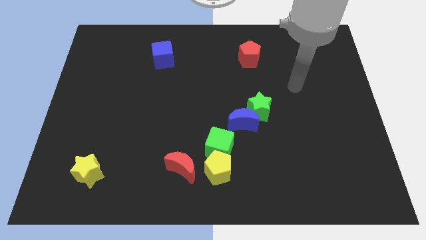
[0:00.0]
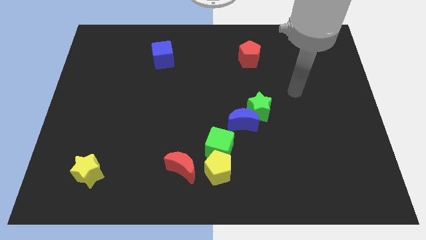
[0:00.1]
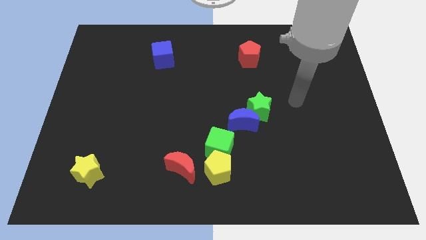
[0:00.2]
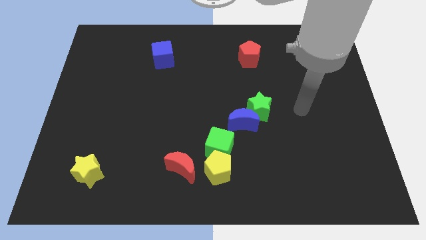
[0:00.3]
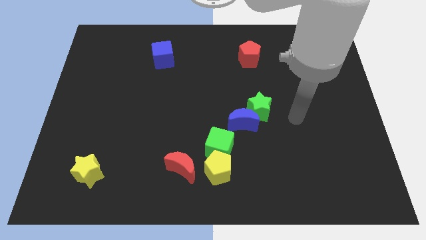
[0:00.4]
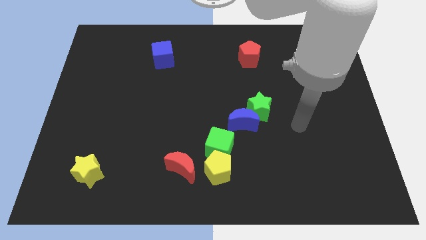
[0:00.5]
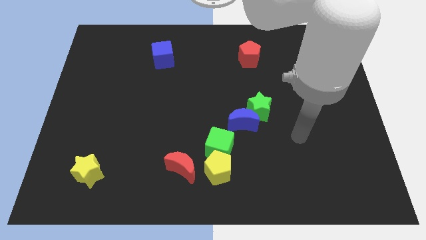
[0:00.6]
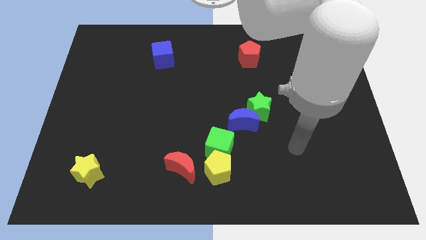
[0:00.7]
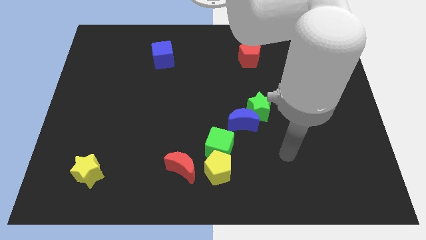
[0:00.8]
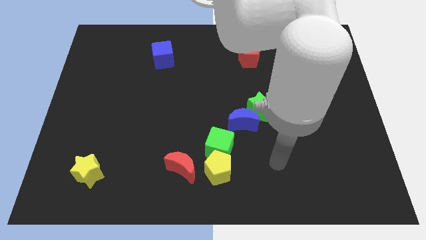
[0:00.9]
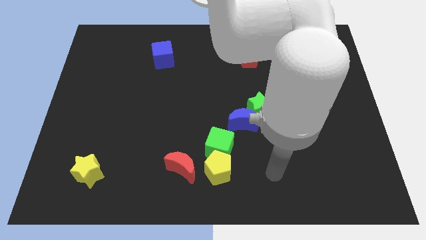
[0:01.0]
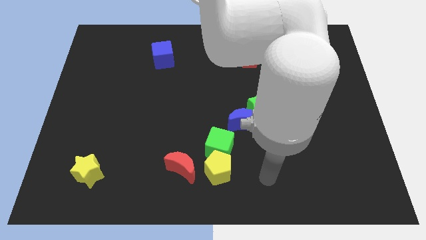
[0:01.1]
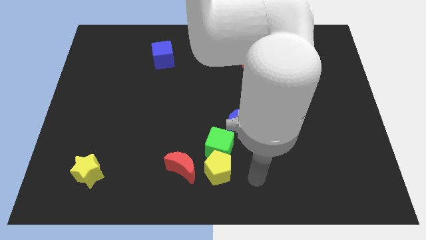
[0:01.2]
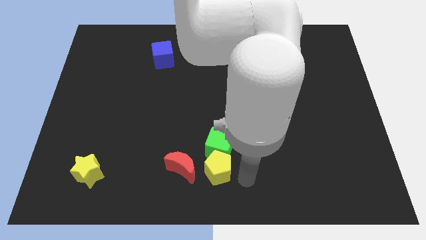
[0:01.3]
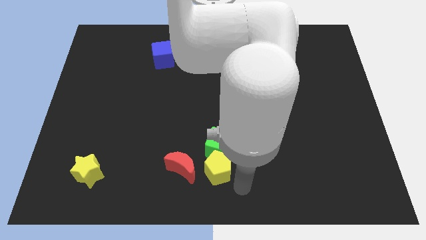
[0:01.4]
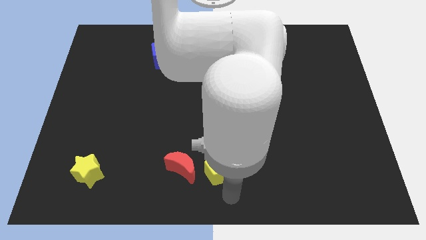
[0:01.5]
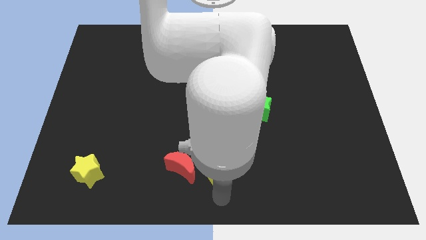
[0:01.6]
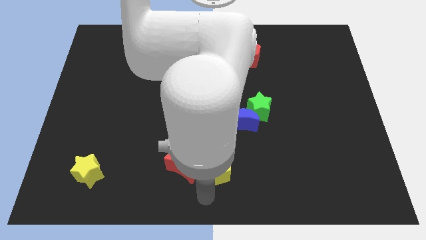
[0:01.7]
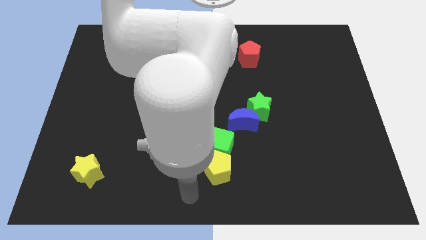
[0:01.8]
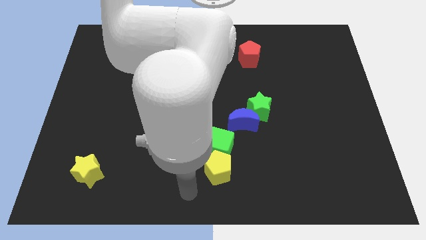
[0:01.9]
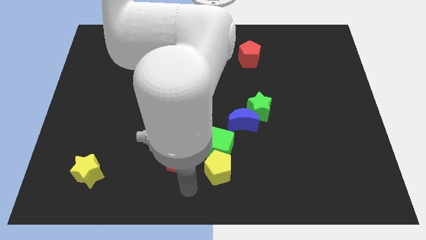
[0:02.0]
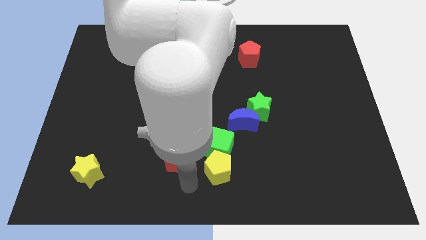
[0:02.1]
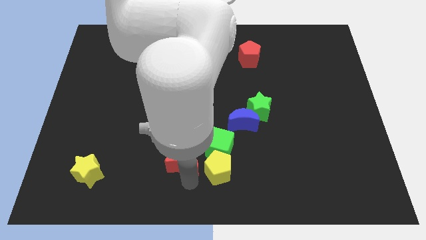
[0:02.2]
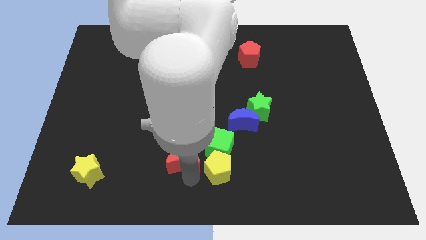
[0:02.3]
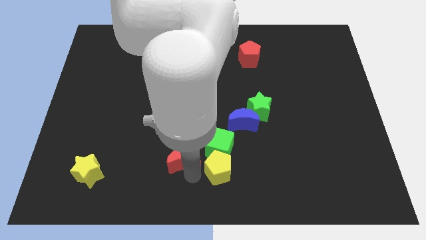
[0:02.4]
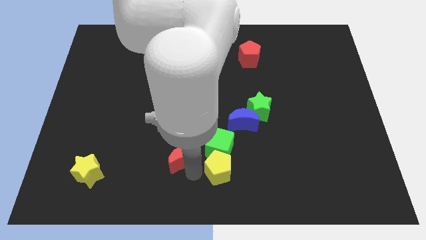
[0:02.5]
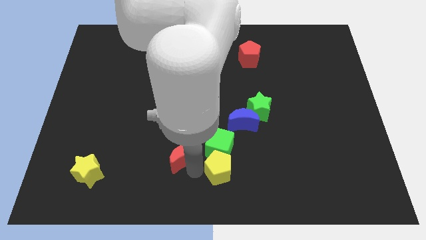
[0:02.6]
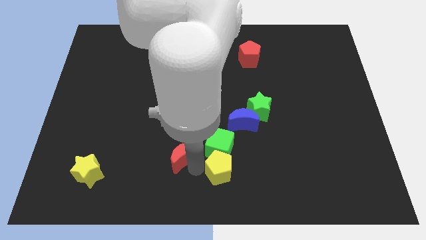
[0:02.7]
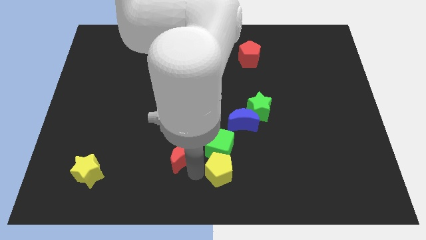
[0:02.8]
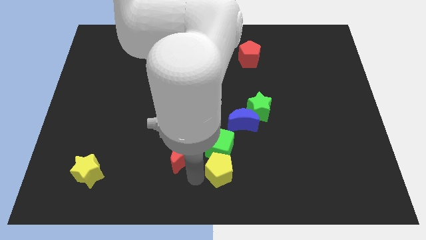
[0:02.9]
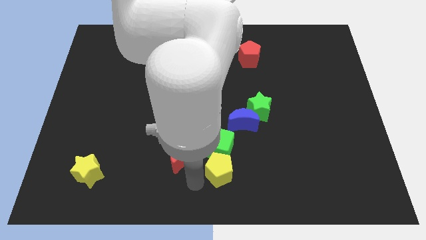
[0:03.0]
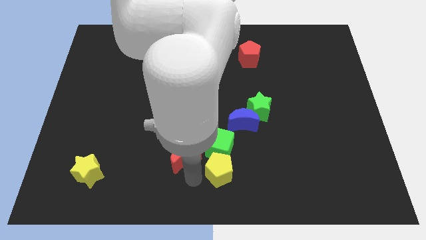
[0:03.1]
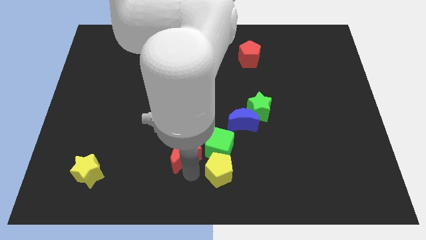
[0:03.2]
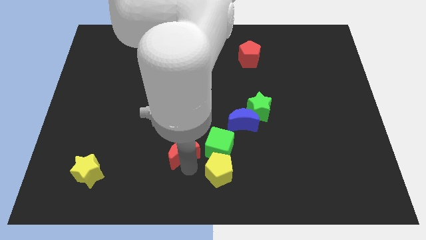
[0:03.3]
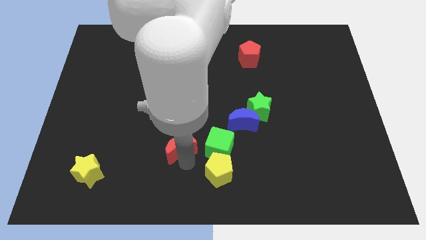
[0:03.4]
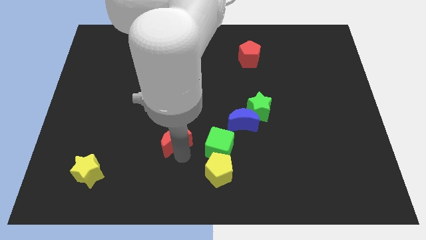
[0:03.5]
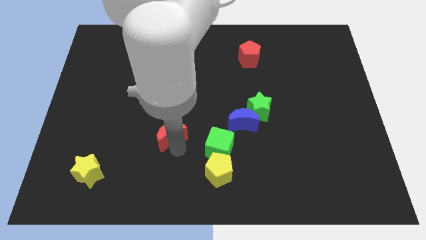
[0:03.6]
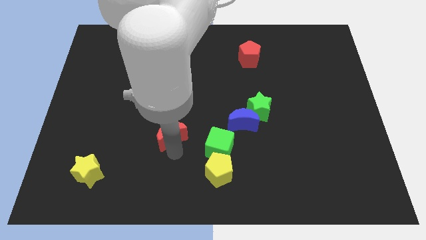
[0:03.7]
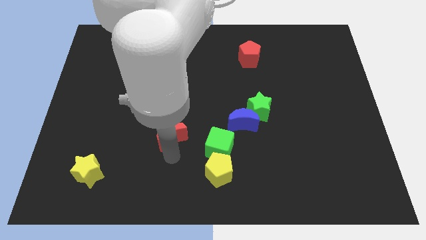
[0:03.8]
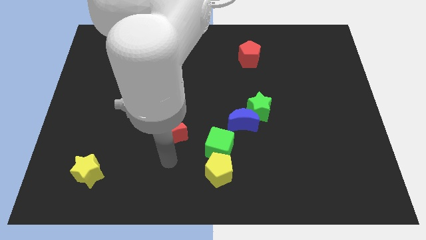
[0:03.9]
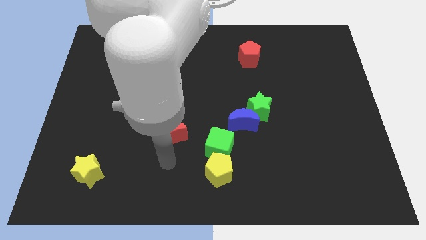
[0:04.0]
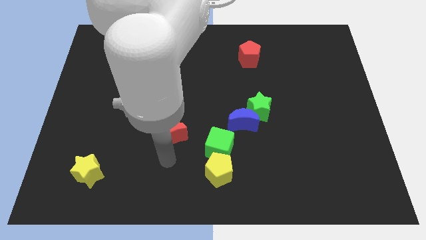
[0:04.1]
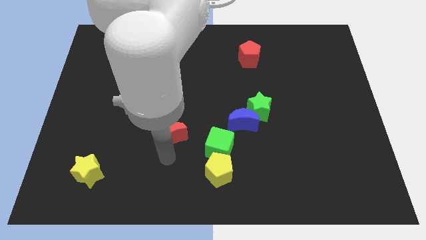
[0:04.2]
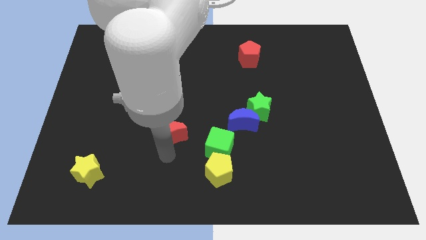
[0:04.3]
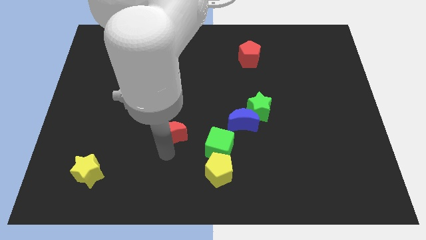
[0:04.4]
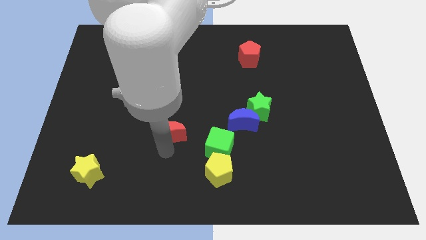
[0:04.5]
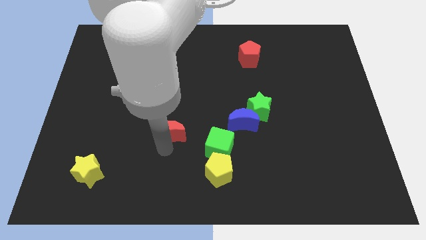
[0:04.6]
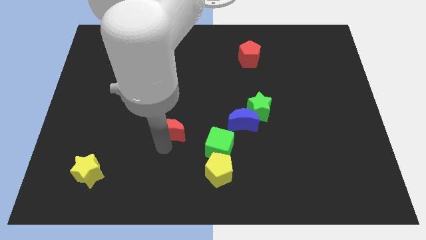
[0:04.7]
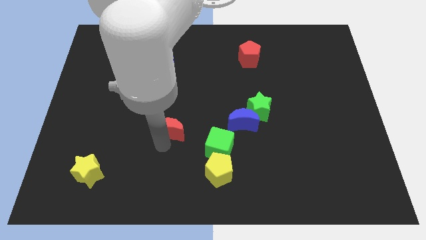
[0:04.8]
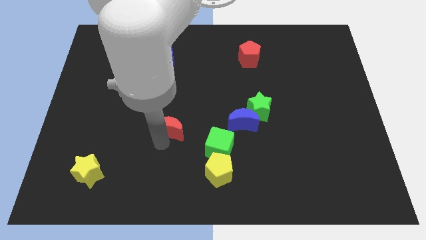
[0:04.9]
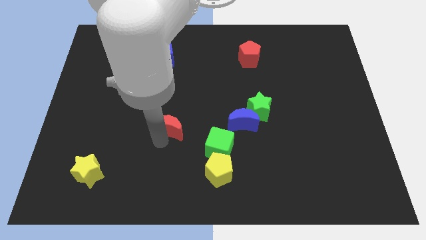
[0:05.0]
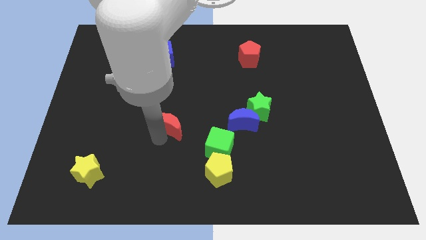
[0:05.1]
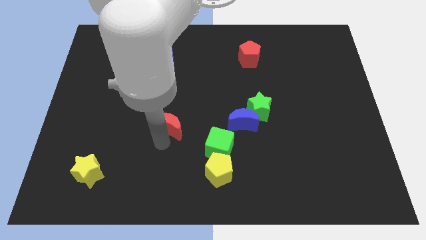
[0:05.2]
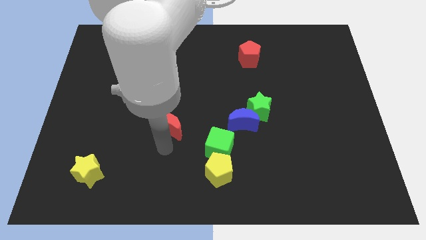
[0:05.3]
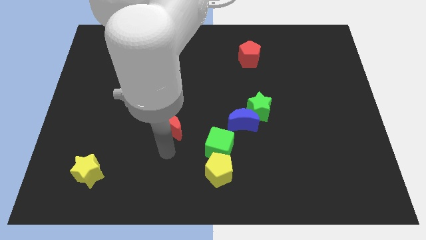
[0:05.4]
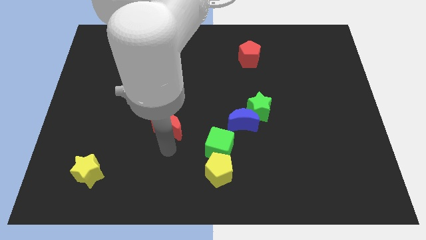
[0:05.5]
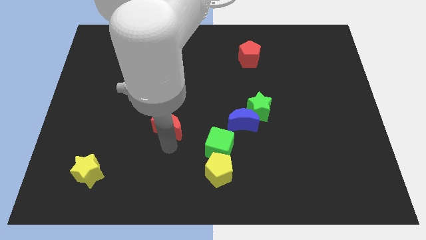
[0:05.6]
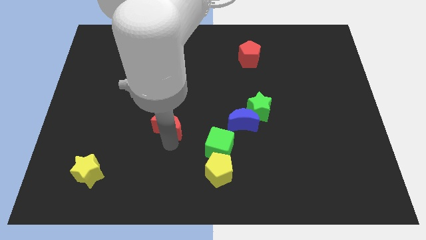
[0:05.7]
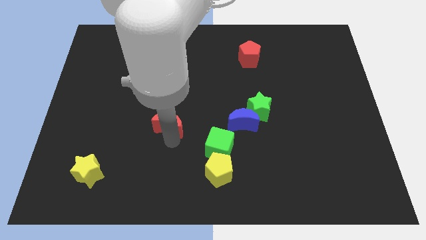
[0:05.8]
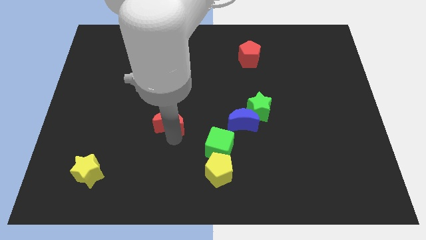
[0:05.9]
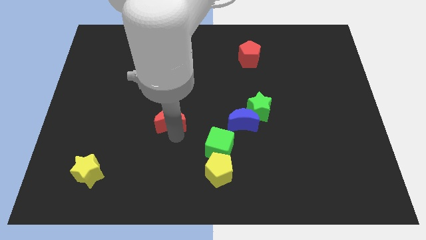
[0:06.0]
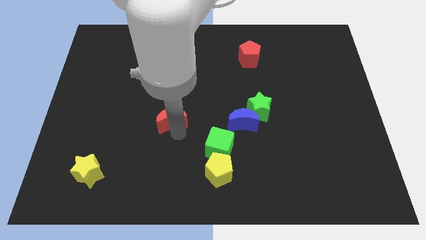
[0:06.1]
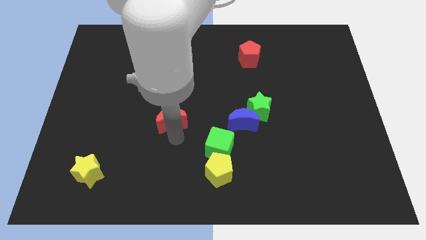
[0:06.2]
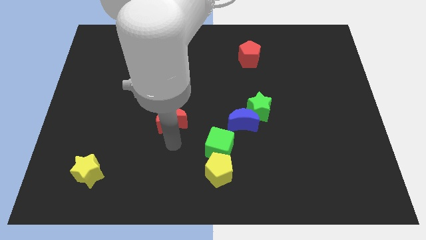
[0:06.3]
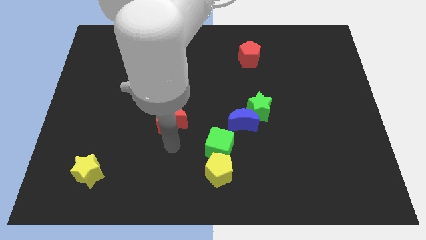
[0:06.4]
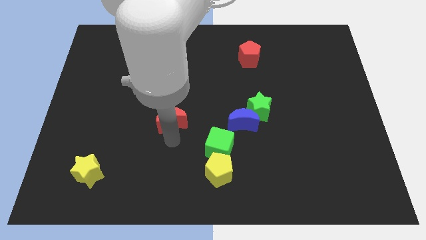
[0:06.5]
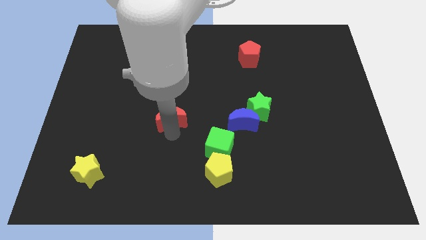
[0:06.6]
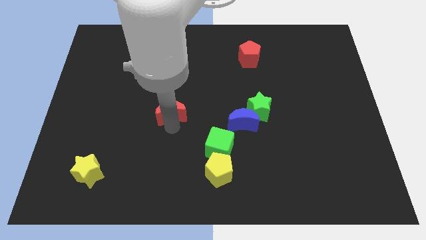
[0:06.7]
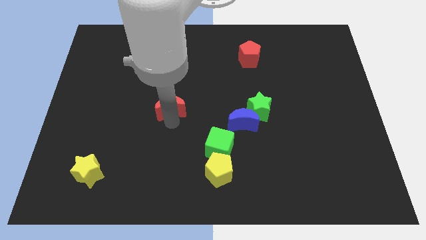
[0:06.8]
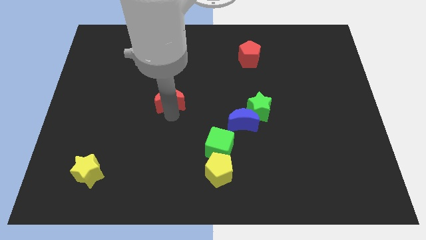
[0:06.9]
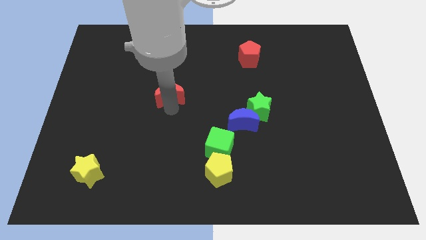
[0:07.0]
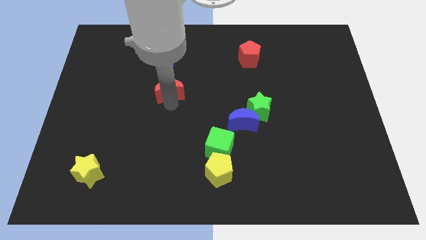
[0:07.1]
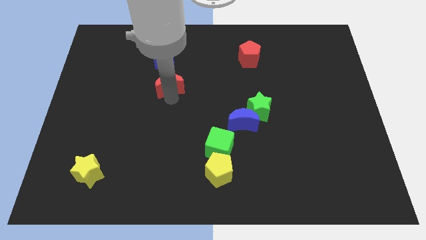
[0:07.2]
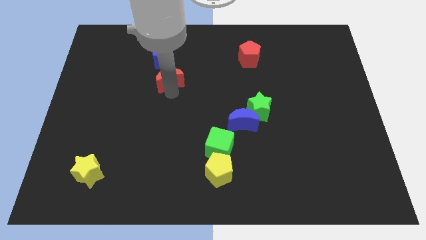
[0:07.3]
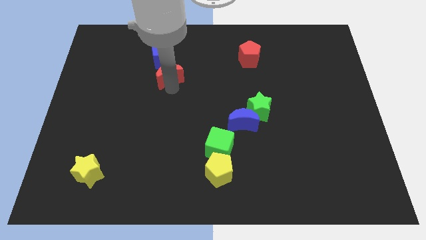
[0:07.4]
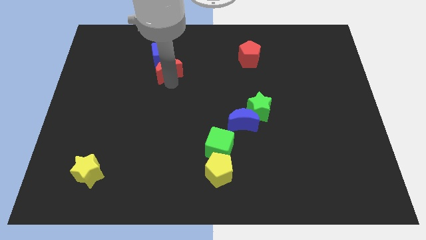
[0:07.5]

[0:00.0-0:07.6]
move the red moon close to the blue cube
